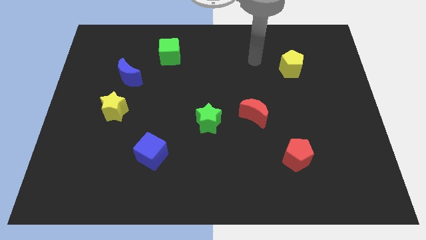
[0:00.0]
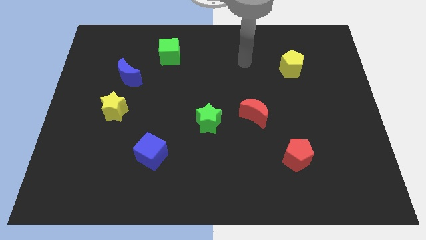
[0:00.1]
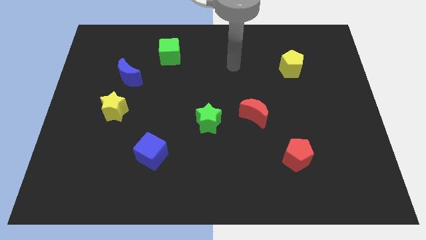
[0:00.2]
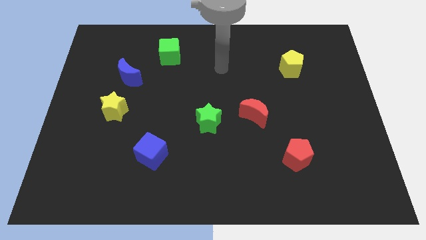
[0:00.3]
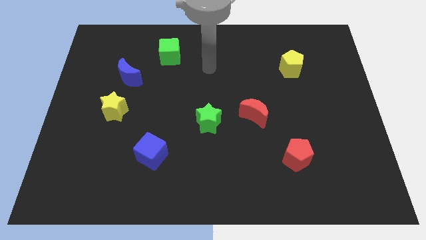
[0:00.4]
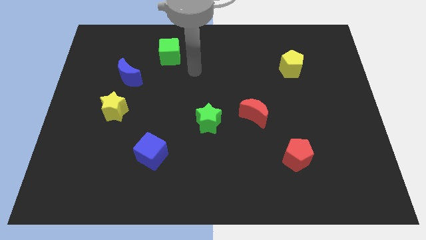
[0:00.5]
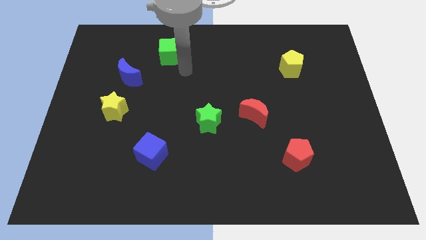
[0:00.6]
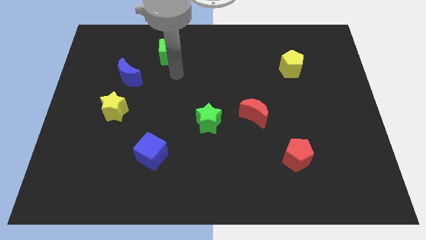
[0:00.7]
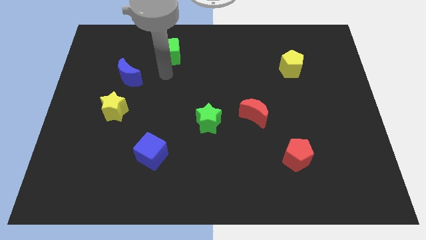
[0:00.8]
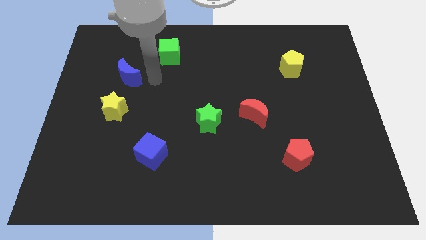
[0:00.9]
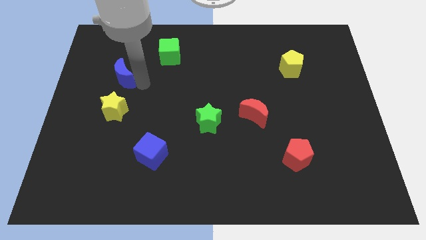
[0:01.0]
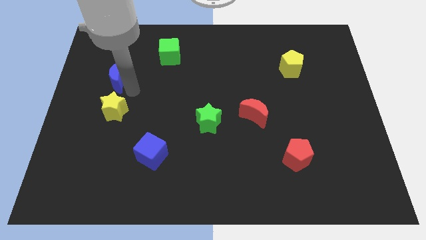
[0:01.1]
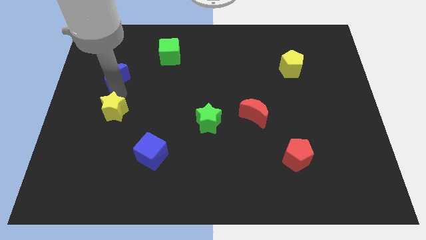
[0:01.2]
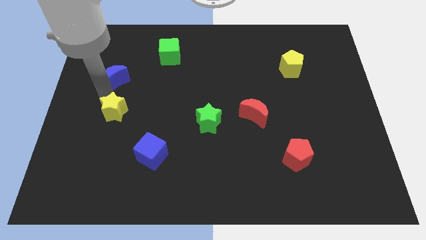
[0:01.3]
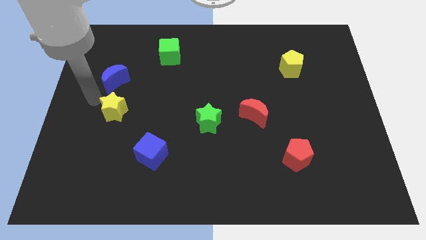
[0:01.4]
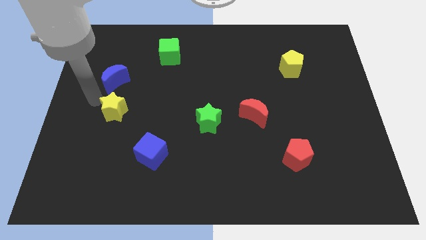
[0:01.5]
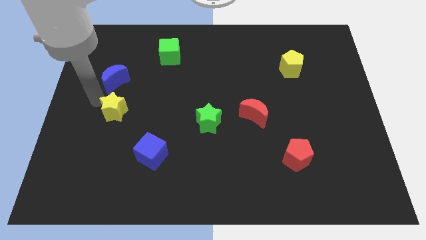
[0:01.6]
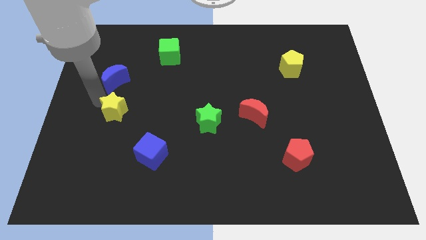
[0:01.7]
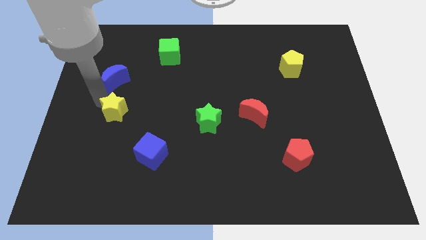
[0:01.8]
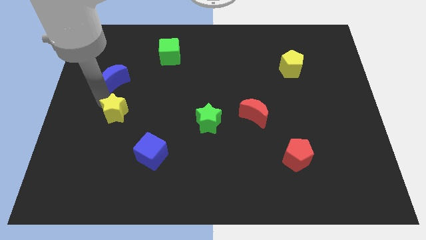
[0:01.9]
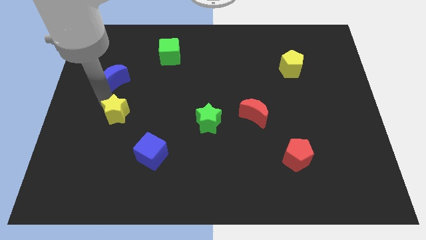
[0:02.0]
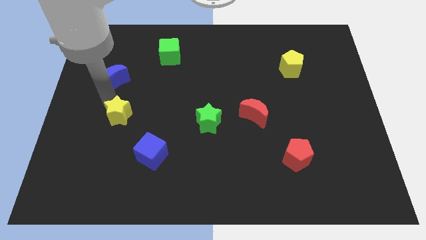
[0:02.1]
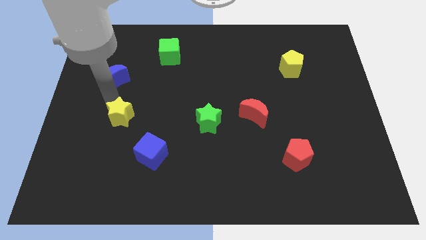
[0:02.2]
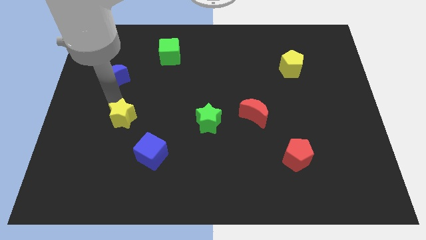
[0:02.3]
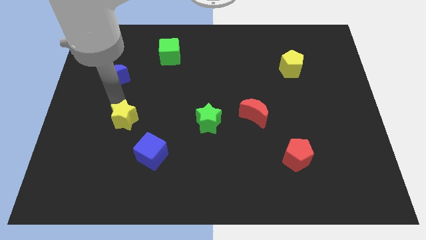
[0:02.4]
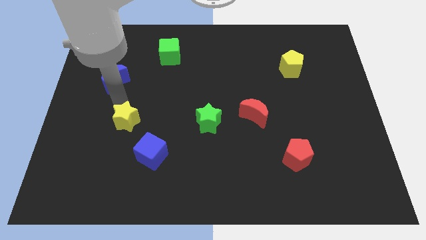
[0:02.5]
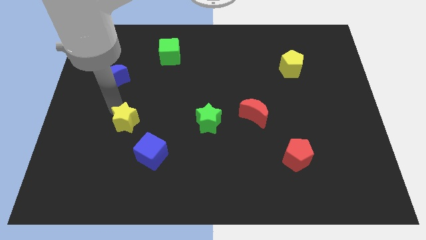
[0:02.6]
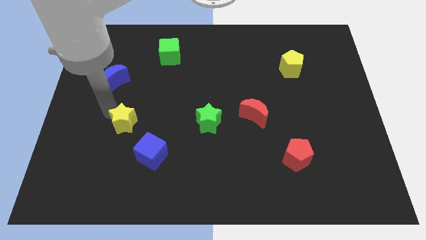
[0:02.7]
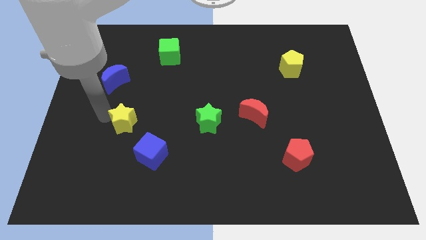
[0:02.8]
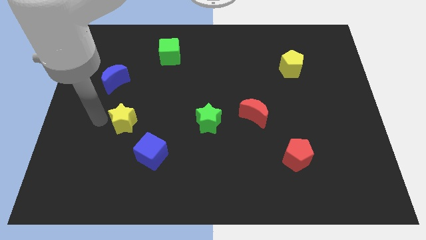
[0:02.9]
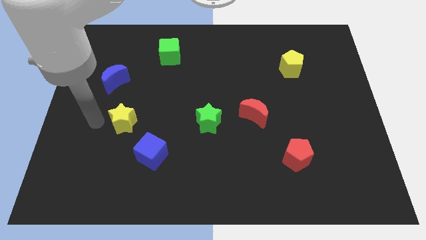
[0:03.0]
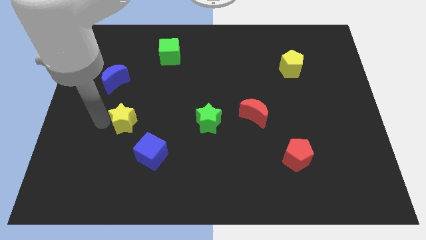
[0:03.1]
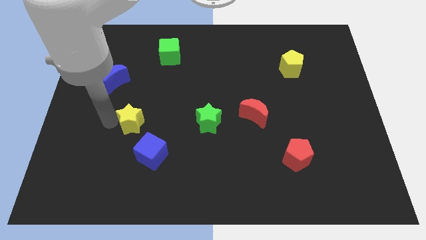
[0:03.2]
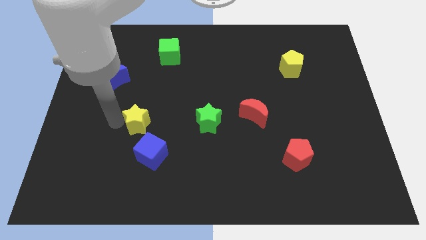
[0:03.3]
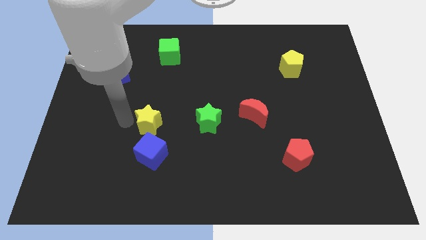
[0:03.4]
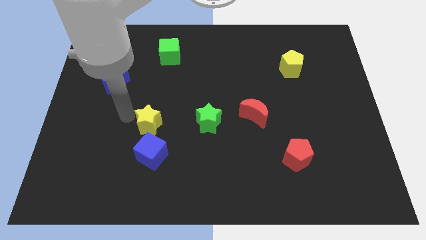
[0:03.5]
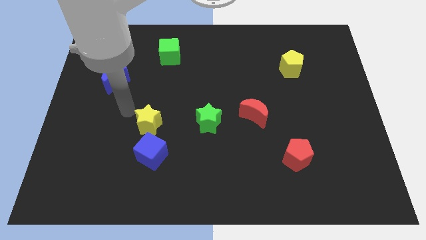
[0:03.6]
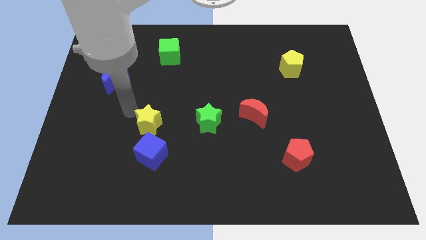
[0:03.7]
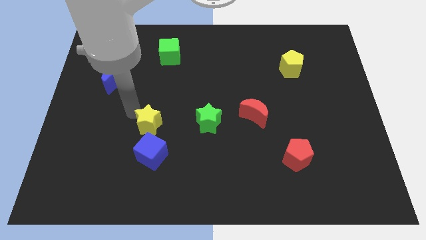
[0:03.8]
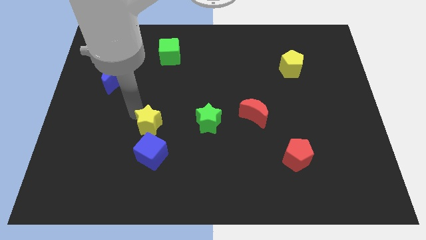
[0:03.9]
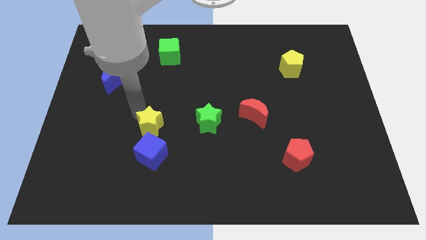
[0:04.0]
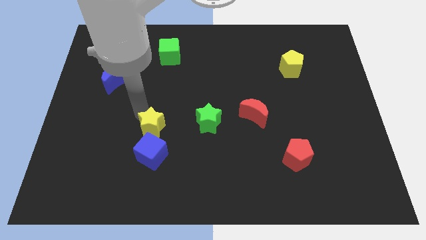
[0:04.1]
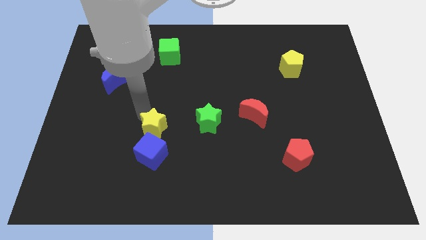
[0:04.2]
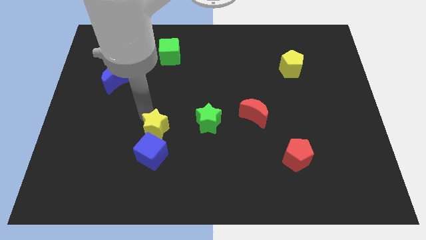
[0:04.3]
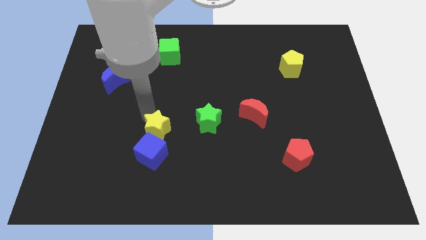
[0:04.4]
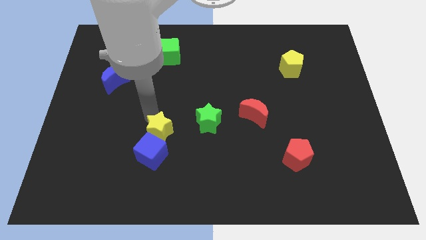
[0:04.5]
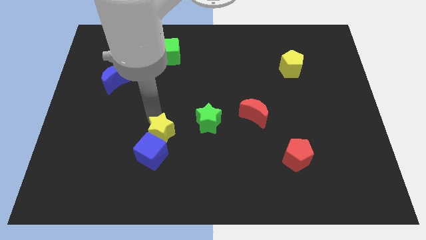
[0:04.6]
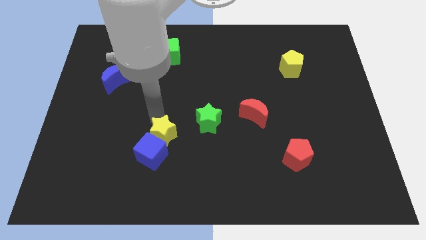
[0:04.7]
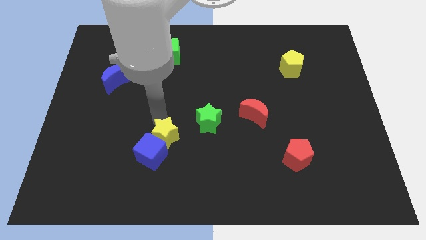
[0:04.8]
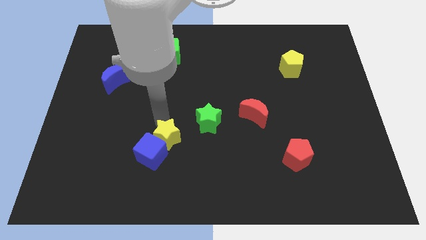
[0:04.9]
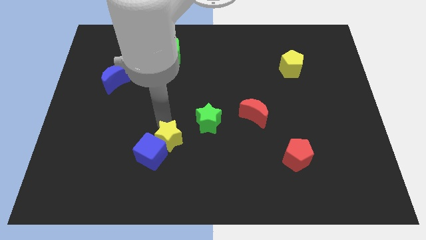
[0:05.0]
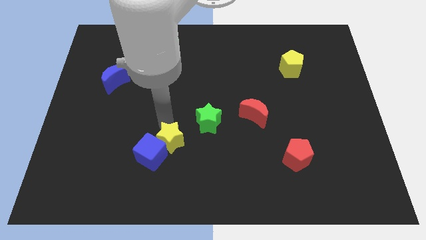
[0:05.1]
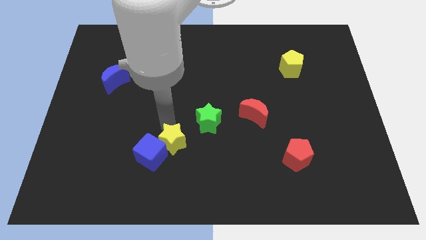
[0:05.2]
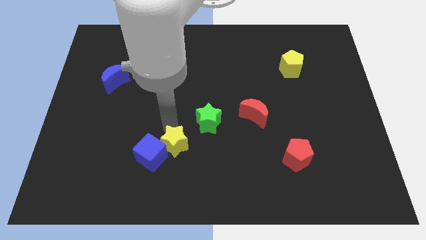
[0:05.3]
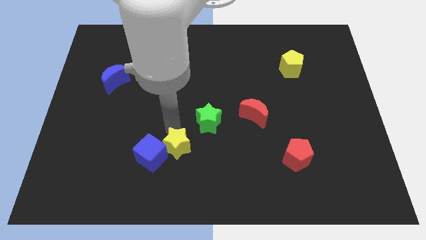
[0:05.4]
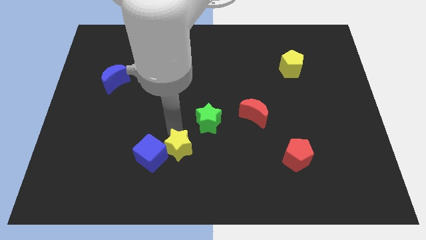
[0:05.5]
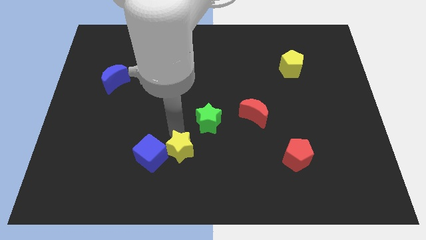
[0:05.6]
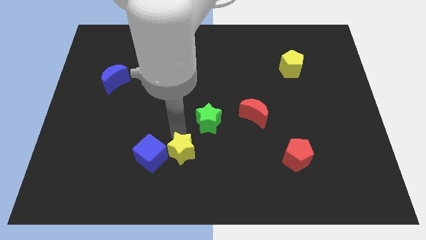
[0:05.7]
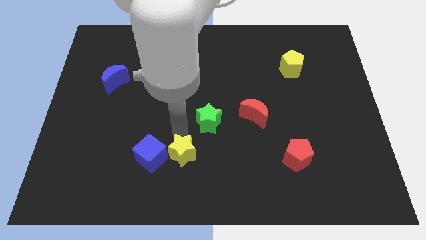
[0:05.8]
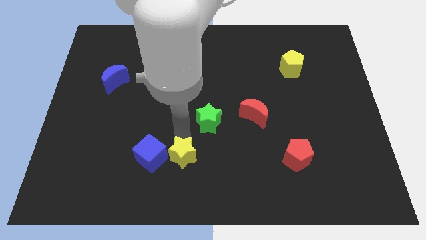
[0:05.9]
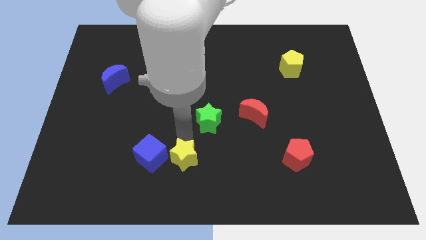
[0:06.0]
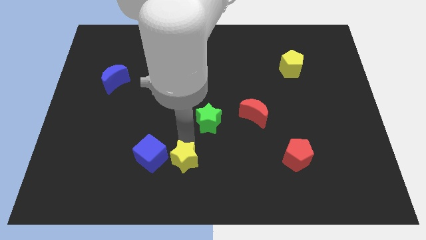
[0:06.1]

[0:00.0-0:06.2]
push the yellow star to the bottom side

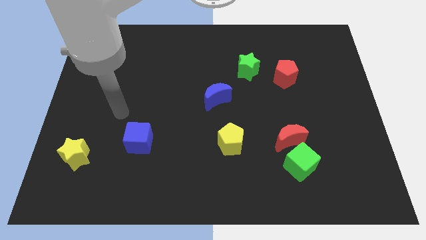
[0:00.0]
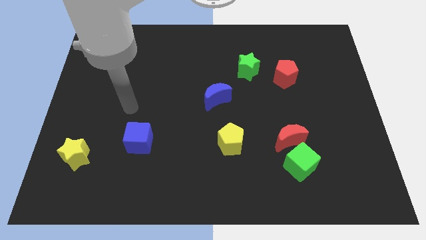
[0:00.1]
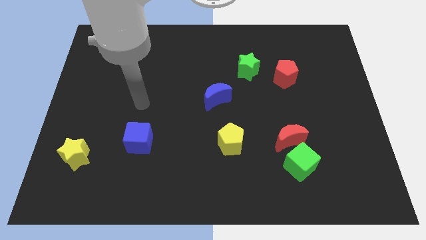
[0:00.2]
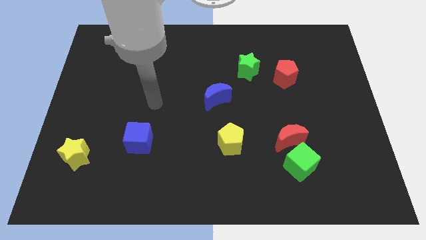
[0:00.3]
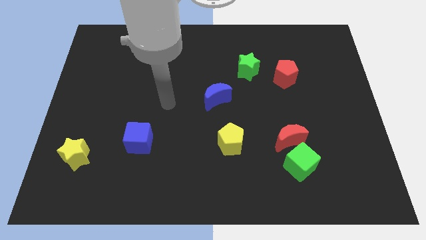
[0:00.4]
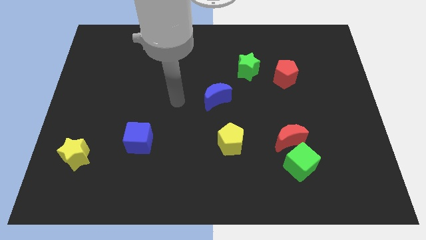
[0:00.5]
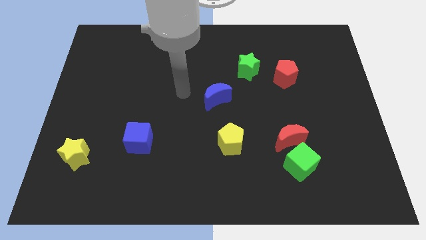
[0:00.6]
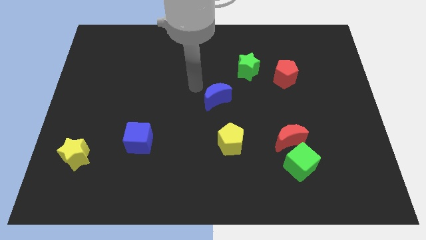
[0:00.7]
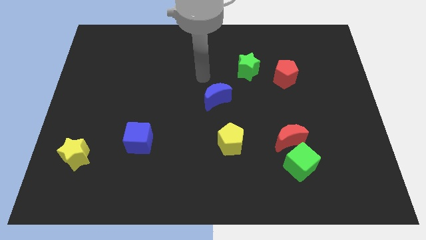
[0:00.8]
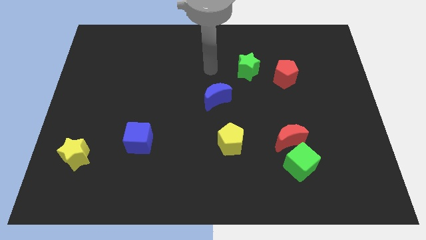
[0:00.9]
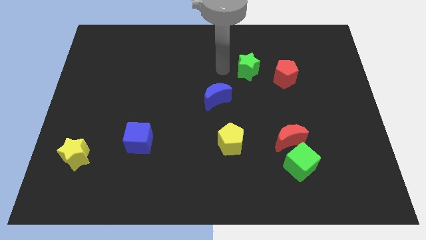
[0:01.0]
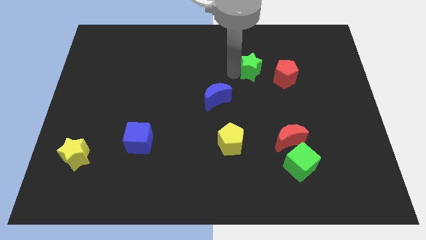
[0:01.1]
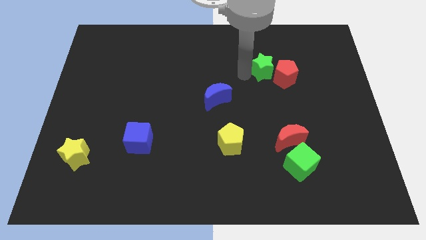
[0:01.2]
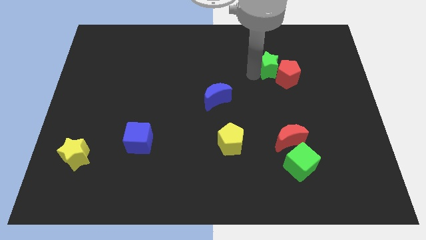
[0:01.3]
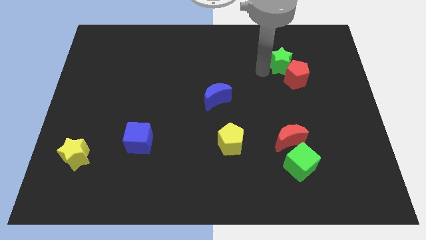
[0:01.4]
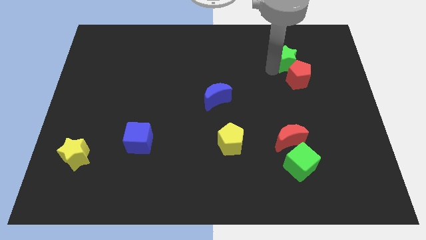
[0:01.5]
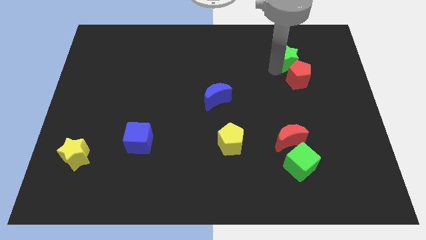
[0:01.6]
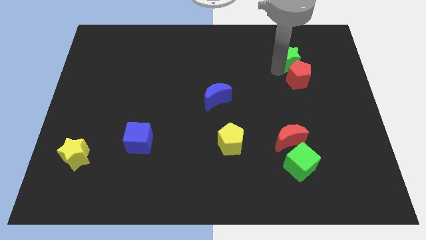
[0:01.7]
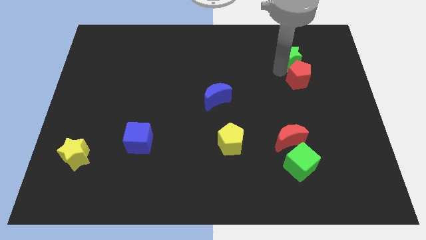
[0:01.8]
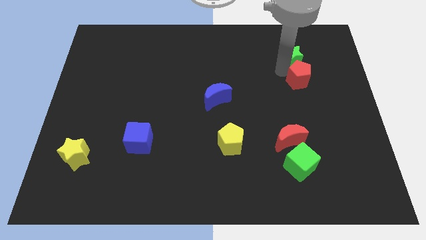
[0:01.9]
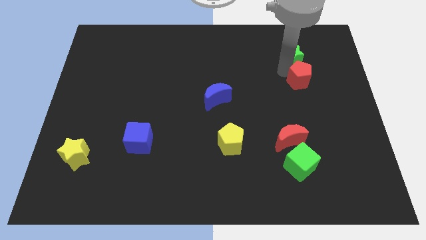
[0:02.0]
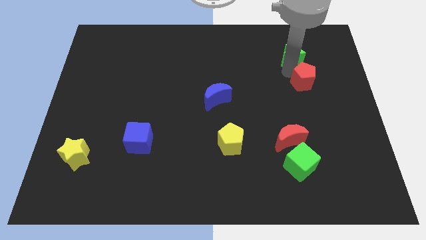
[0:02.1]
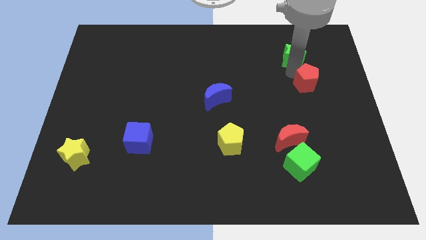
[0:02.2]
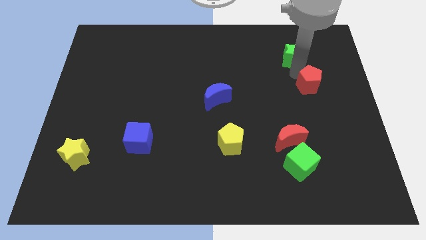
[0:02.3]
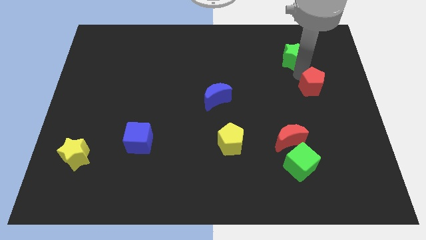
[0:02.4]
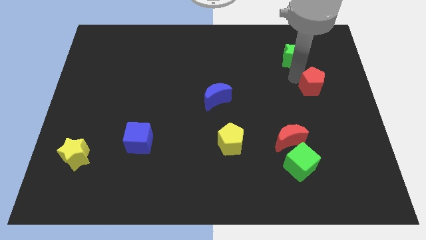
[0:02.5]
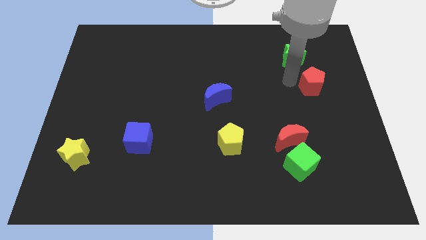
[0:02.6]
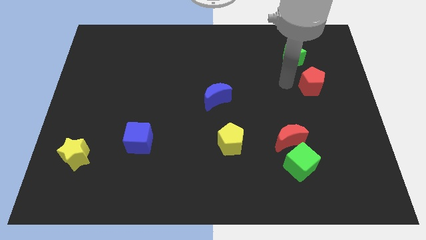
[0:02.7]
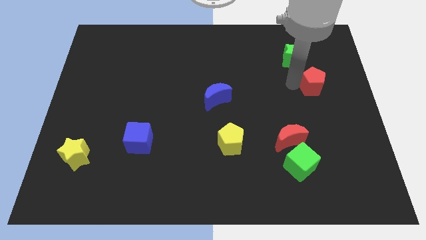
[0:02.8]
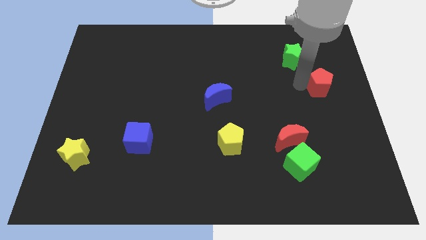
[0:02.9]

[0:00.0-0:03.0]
put the red pentagon to the center right
